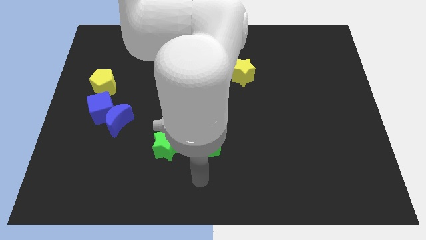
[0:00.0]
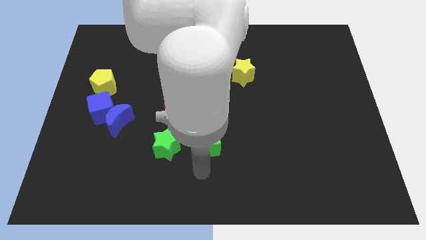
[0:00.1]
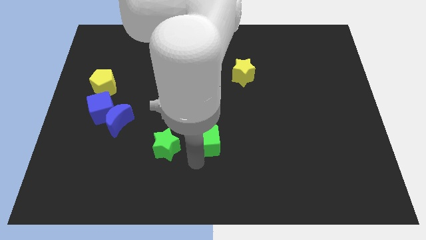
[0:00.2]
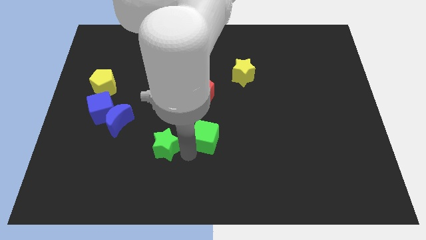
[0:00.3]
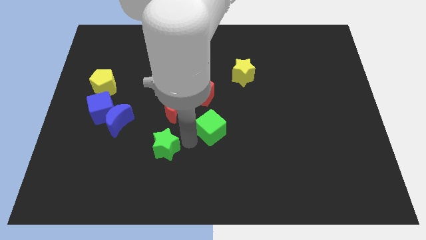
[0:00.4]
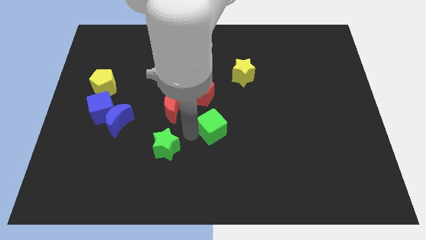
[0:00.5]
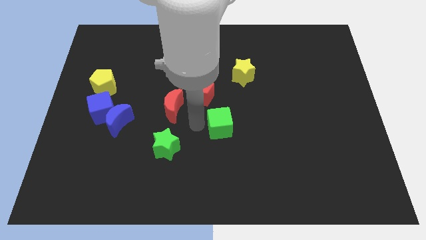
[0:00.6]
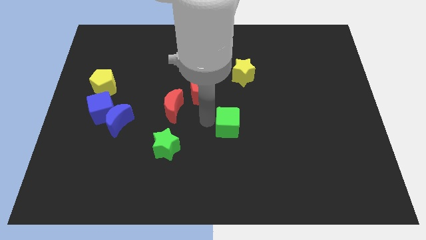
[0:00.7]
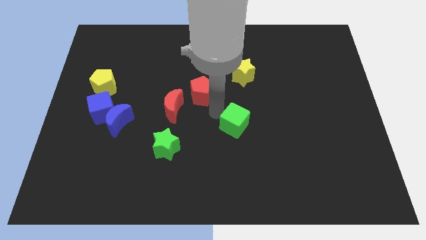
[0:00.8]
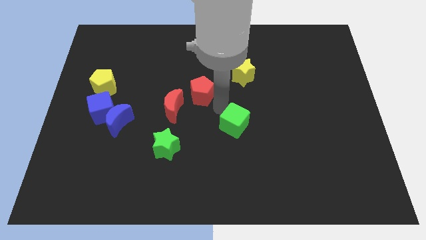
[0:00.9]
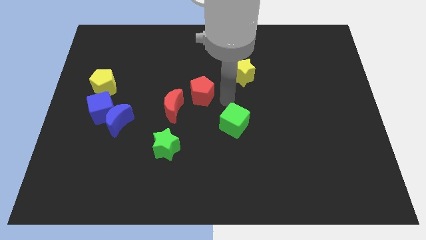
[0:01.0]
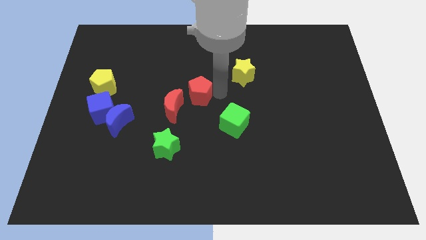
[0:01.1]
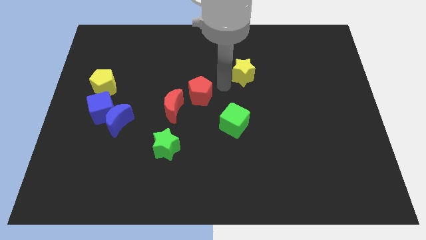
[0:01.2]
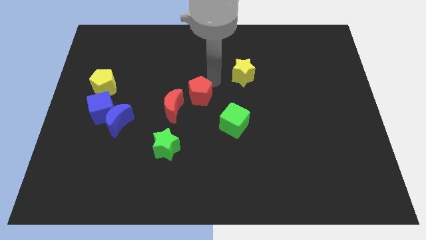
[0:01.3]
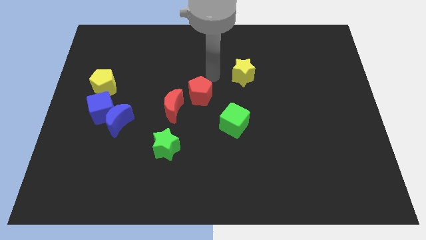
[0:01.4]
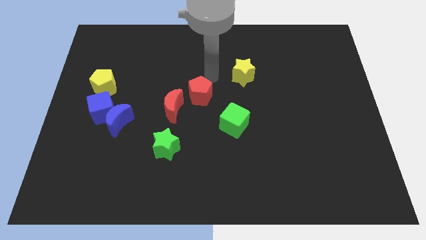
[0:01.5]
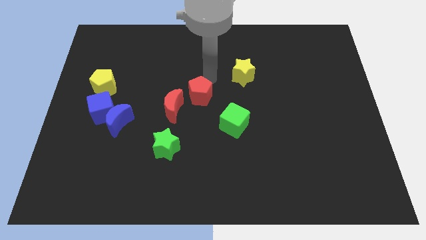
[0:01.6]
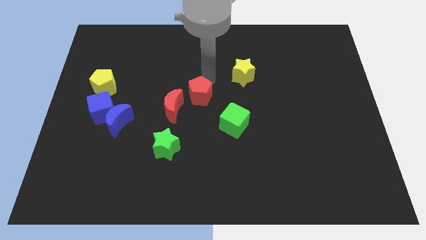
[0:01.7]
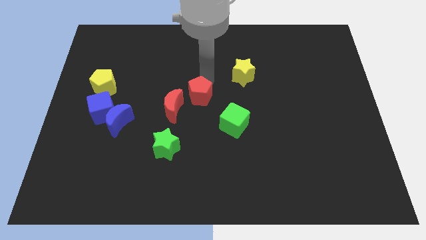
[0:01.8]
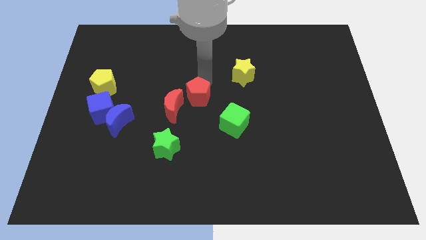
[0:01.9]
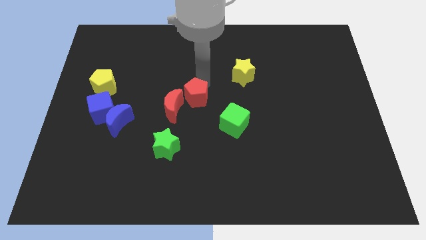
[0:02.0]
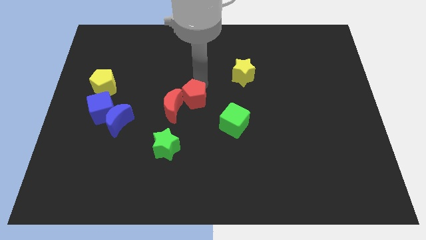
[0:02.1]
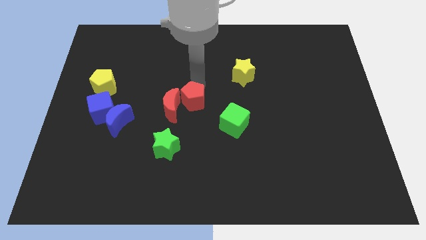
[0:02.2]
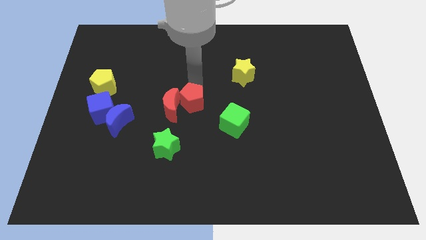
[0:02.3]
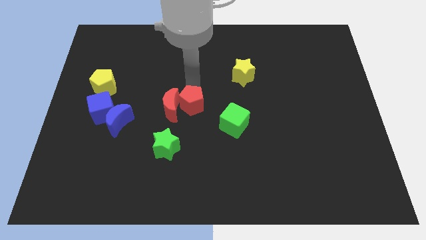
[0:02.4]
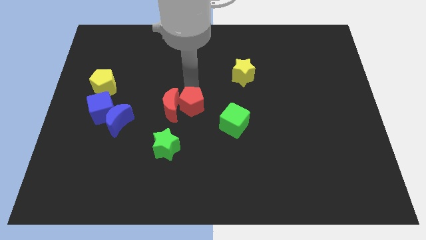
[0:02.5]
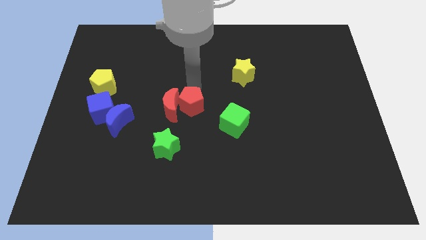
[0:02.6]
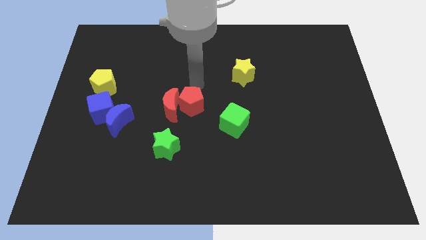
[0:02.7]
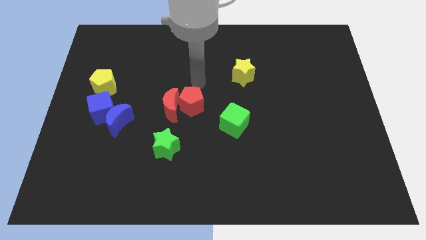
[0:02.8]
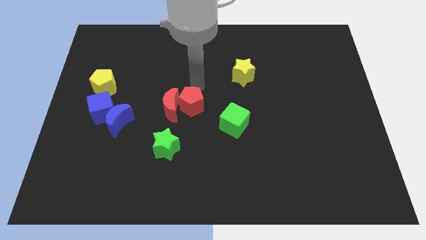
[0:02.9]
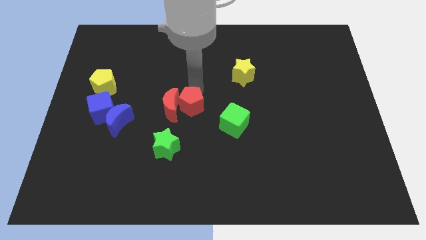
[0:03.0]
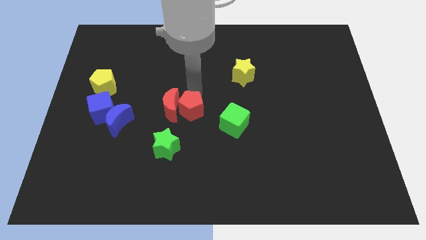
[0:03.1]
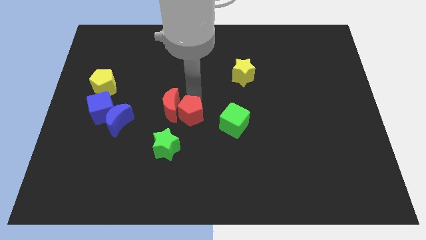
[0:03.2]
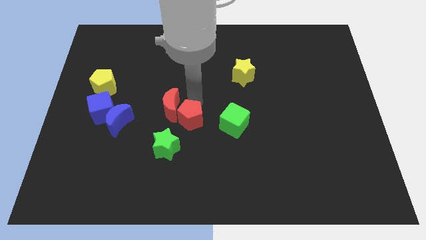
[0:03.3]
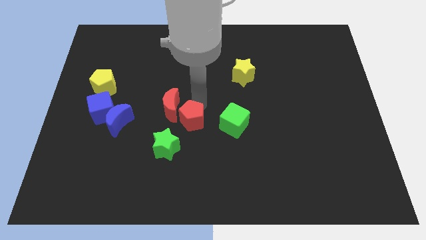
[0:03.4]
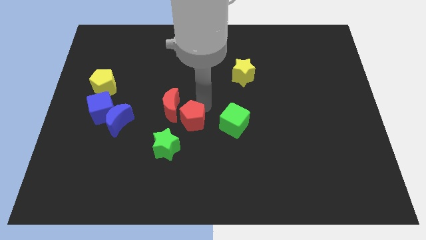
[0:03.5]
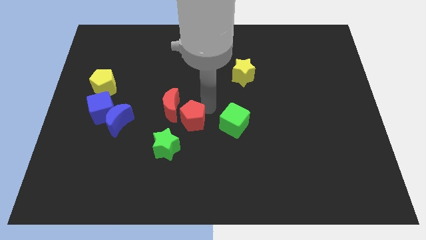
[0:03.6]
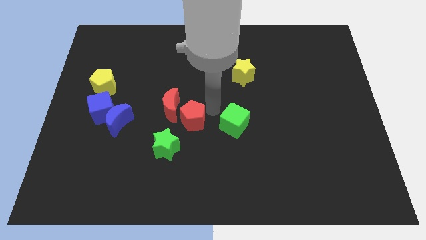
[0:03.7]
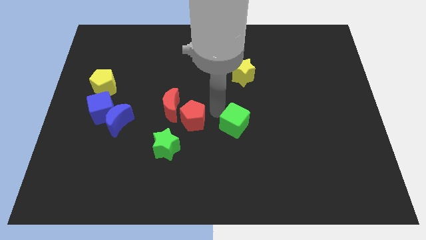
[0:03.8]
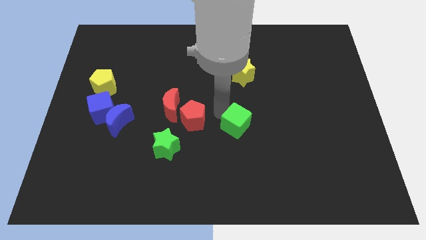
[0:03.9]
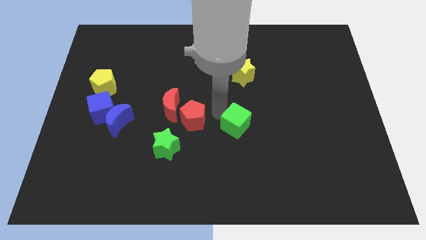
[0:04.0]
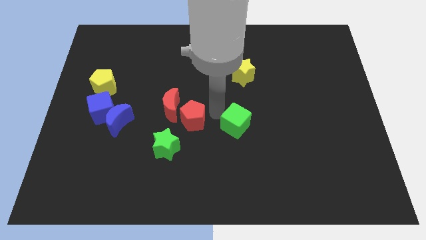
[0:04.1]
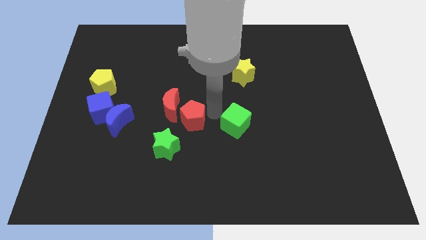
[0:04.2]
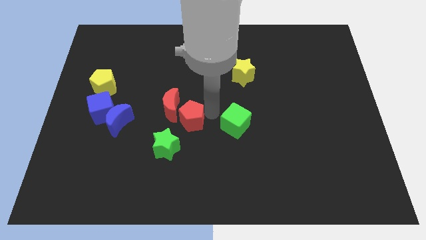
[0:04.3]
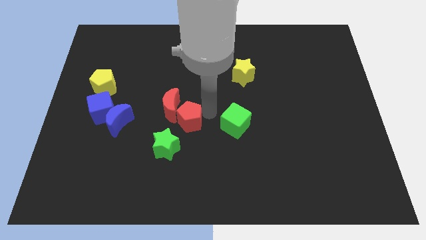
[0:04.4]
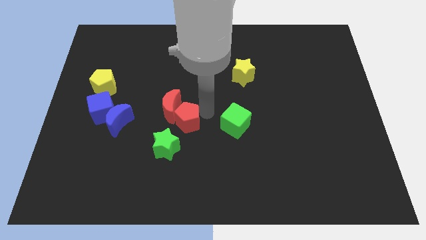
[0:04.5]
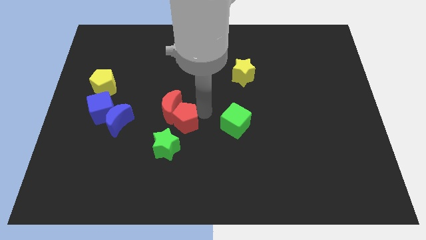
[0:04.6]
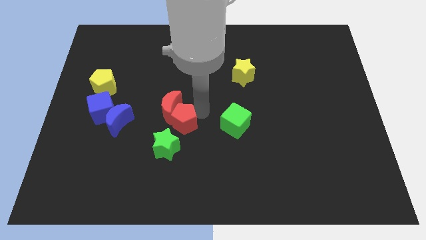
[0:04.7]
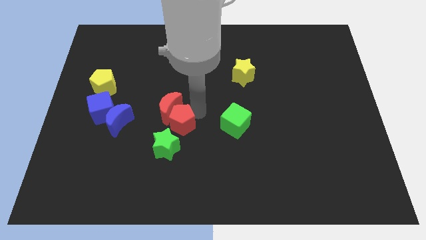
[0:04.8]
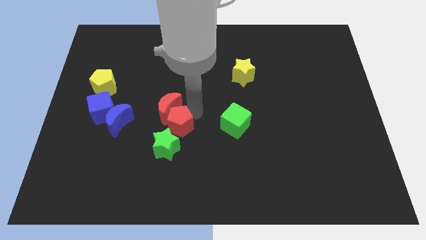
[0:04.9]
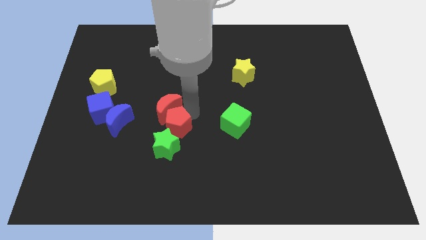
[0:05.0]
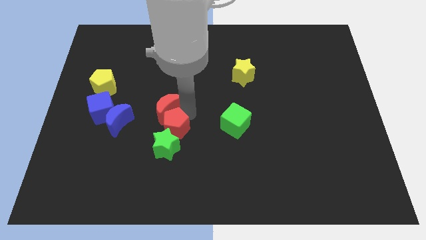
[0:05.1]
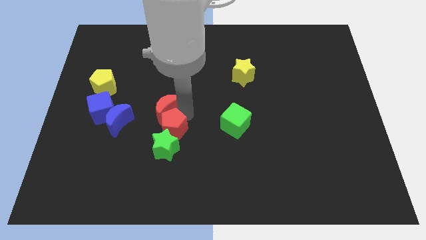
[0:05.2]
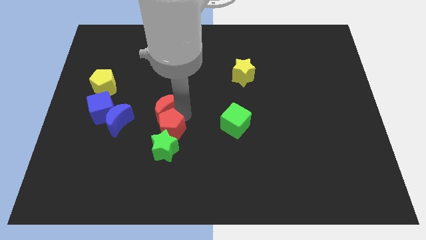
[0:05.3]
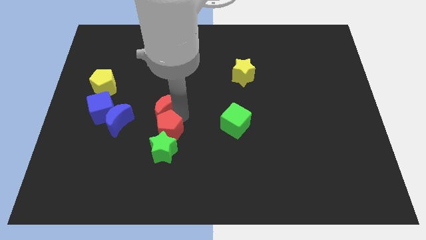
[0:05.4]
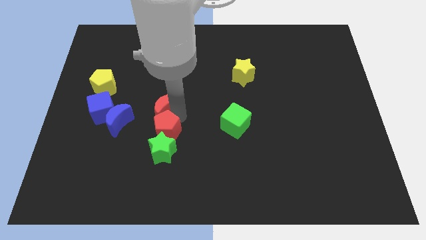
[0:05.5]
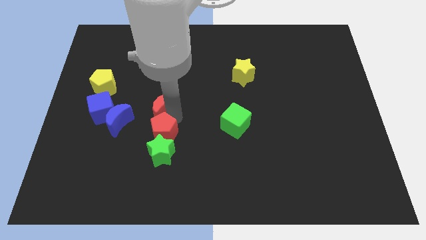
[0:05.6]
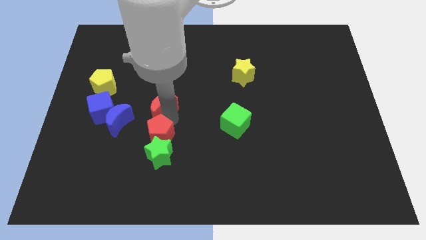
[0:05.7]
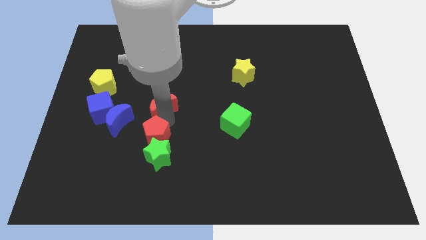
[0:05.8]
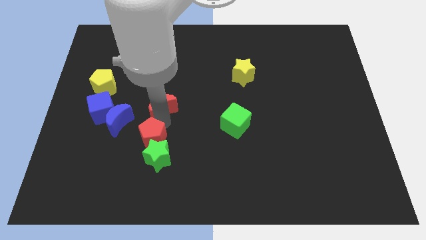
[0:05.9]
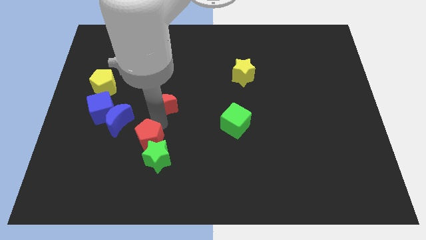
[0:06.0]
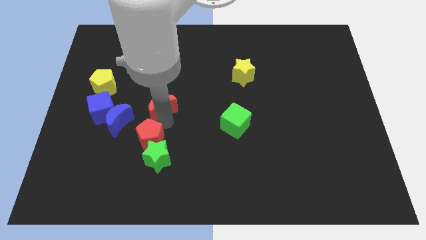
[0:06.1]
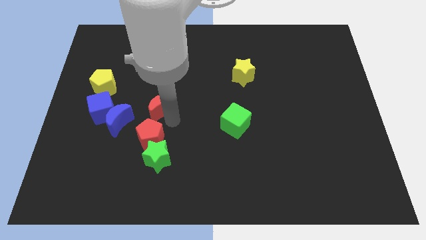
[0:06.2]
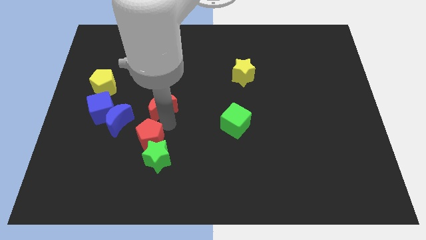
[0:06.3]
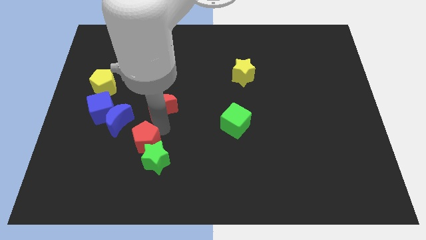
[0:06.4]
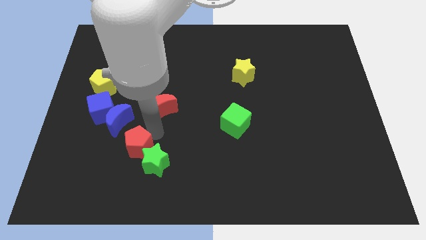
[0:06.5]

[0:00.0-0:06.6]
slide the red pentagon down and then left

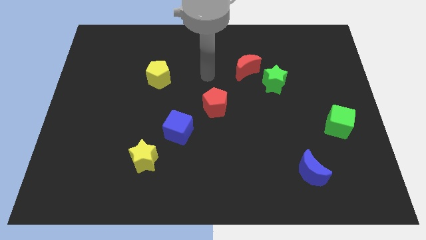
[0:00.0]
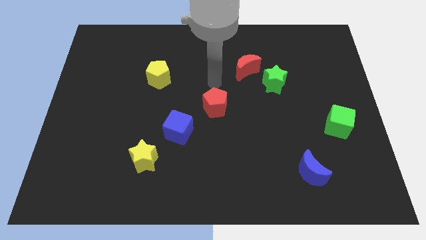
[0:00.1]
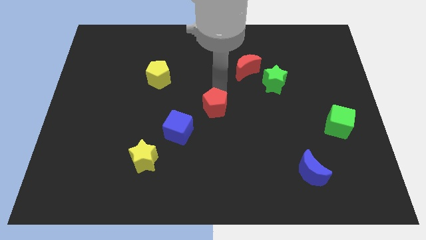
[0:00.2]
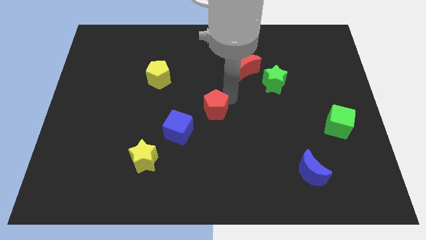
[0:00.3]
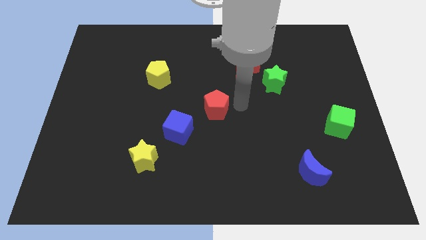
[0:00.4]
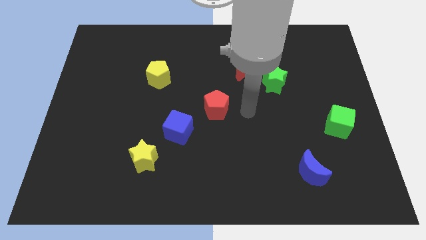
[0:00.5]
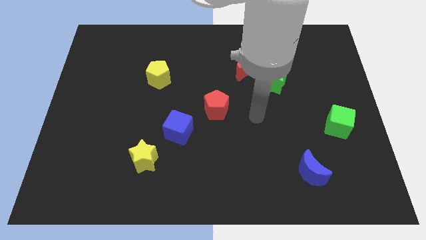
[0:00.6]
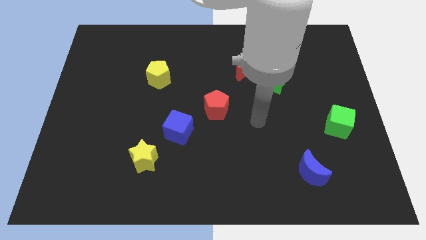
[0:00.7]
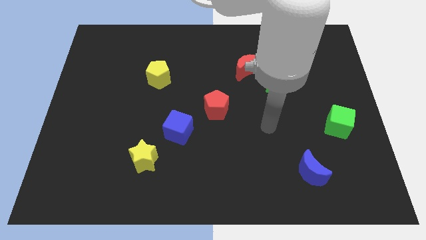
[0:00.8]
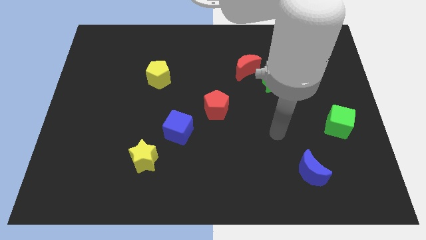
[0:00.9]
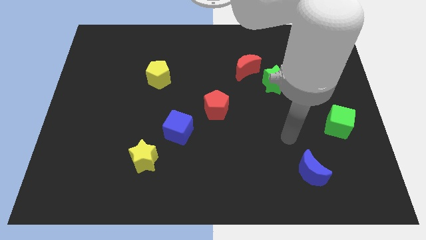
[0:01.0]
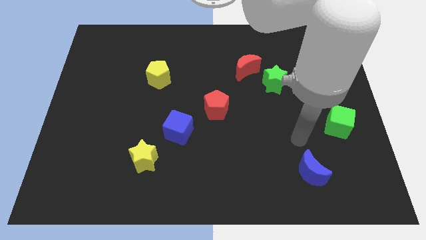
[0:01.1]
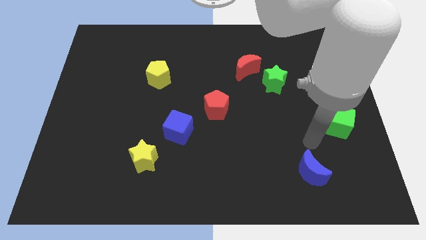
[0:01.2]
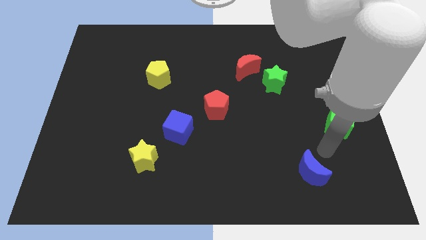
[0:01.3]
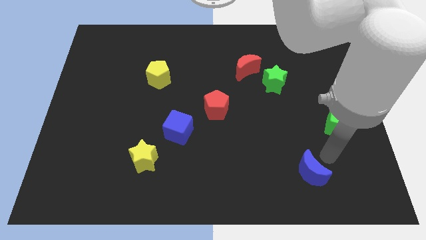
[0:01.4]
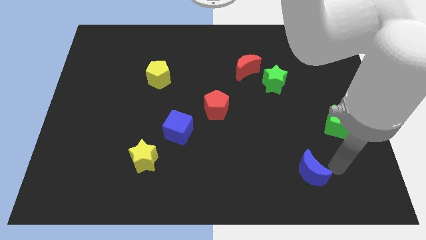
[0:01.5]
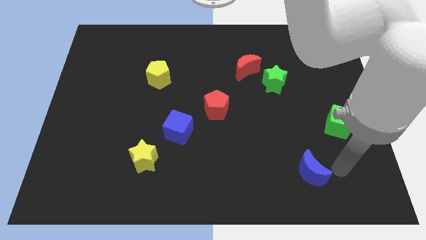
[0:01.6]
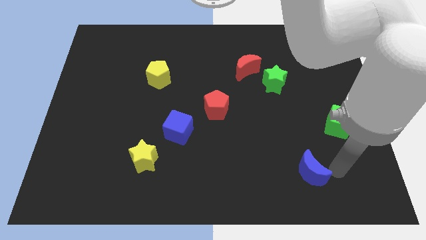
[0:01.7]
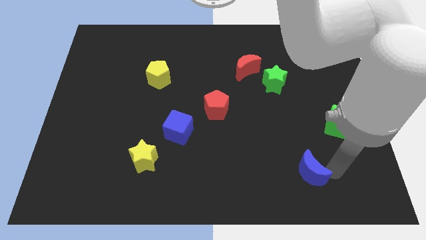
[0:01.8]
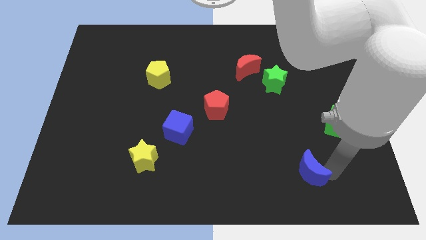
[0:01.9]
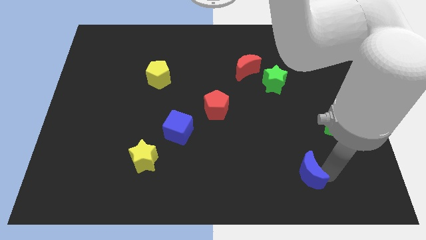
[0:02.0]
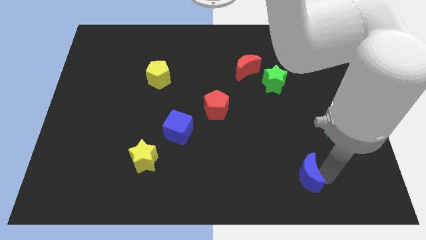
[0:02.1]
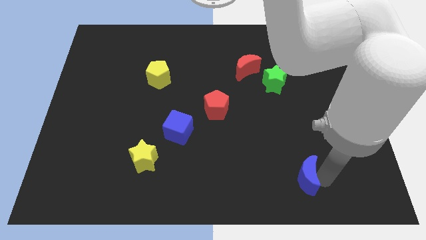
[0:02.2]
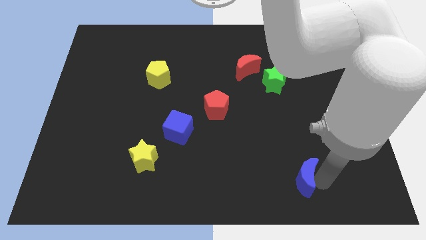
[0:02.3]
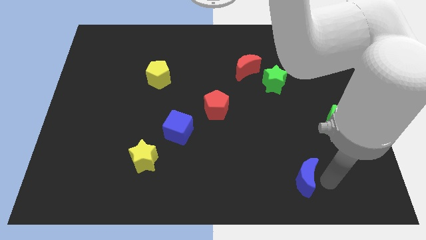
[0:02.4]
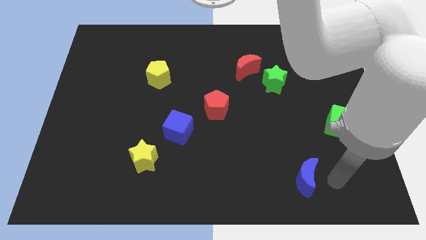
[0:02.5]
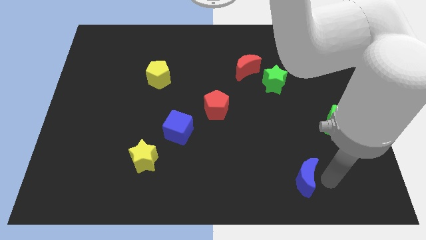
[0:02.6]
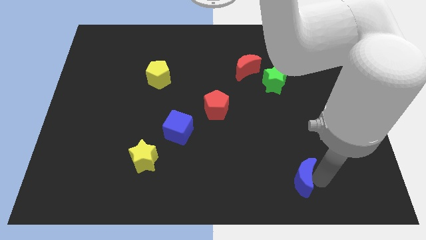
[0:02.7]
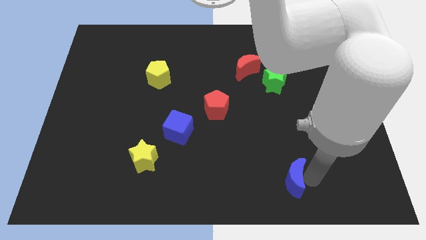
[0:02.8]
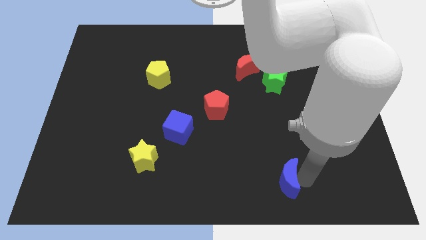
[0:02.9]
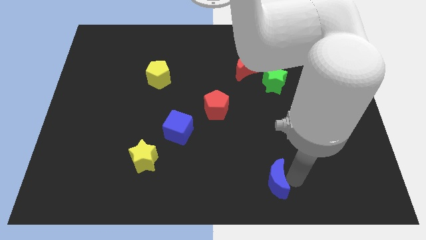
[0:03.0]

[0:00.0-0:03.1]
slightly push the blue moon left
